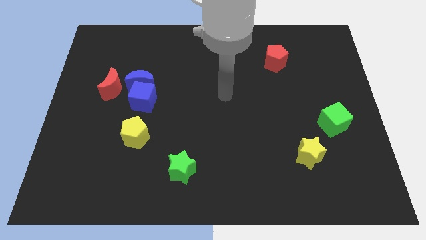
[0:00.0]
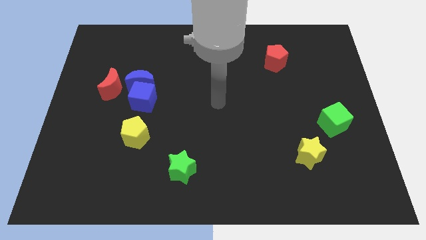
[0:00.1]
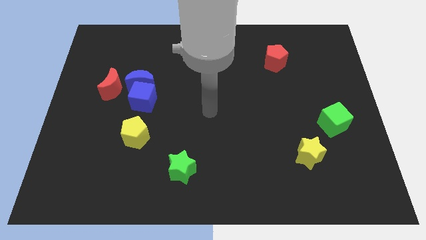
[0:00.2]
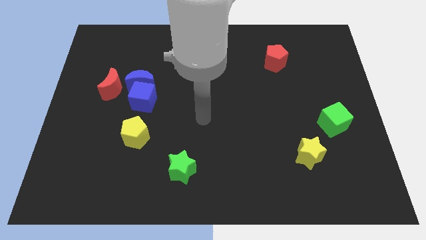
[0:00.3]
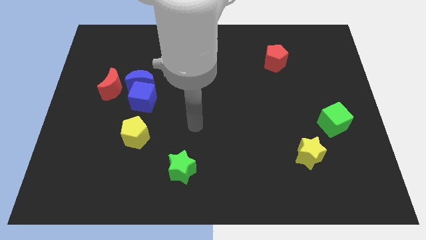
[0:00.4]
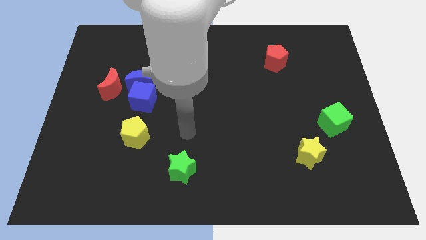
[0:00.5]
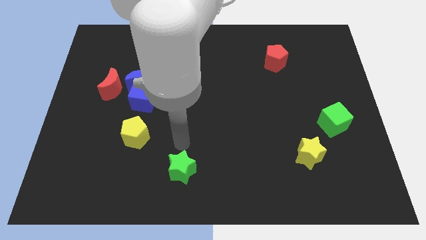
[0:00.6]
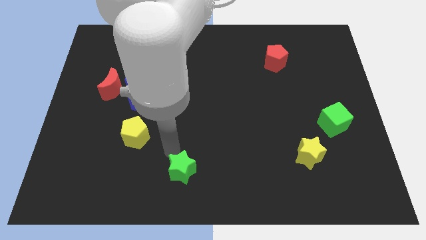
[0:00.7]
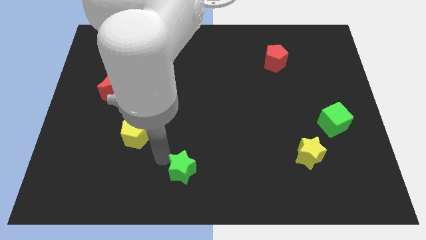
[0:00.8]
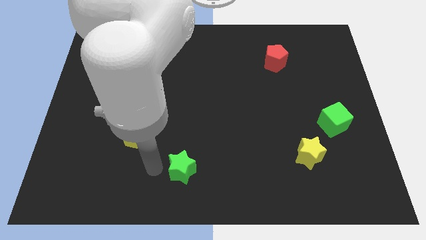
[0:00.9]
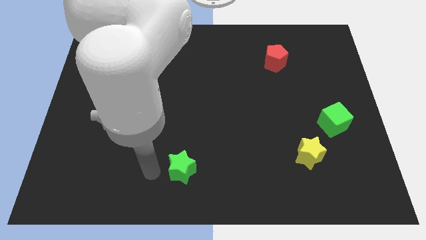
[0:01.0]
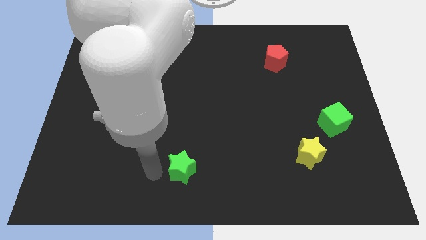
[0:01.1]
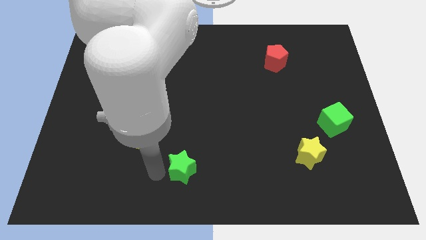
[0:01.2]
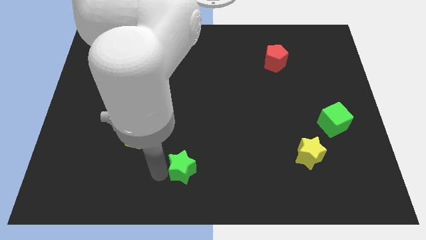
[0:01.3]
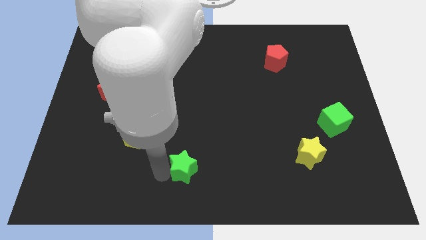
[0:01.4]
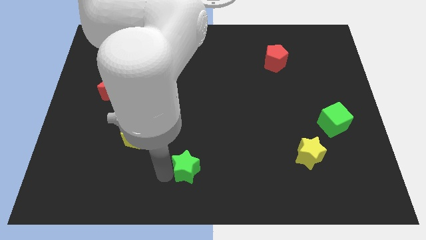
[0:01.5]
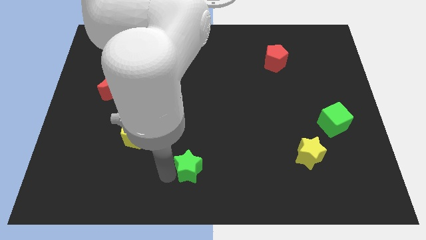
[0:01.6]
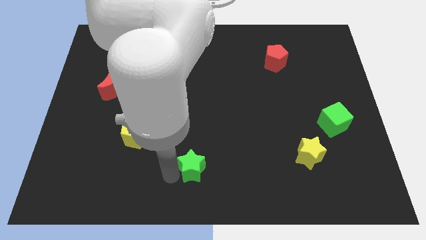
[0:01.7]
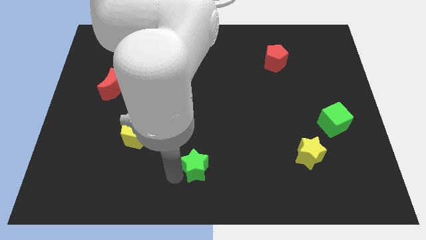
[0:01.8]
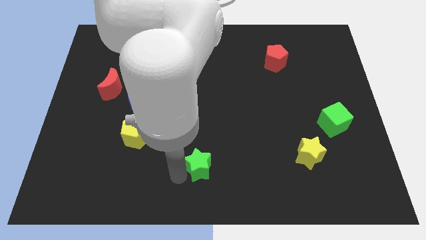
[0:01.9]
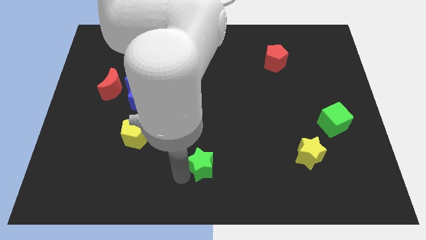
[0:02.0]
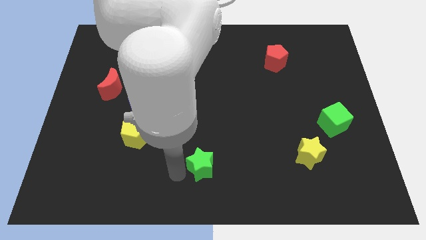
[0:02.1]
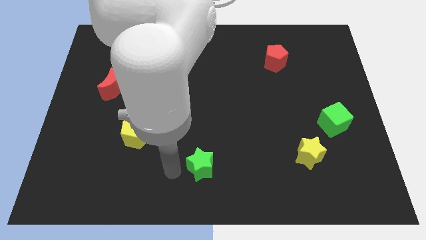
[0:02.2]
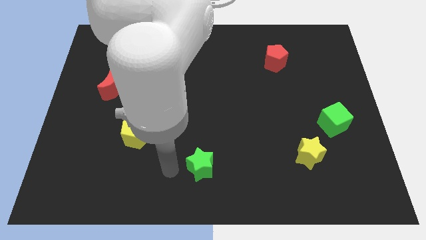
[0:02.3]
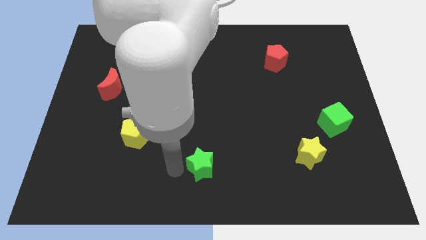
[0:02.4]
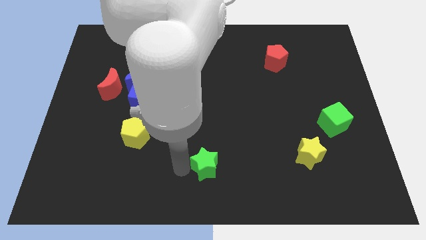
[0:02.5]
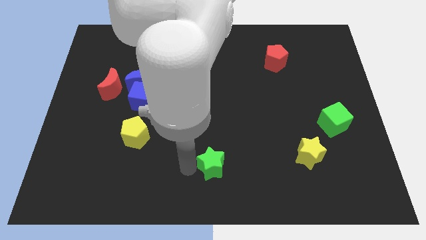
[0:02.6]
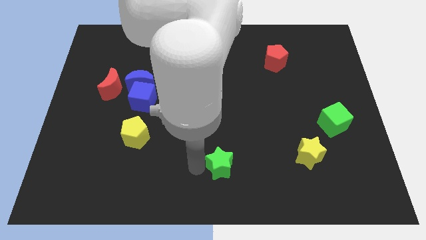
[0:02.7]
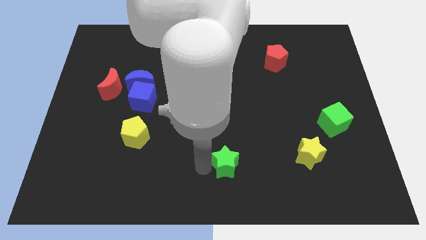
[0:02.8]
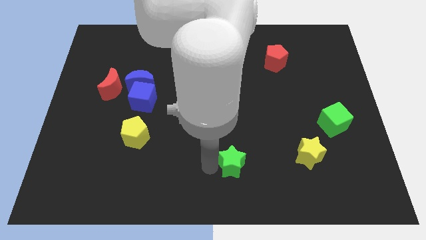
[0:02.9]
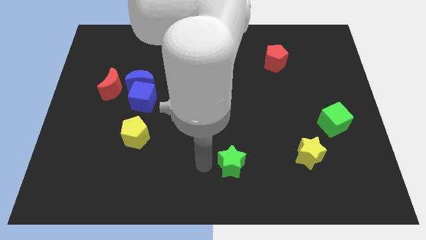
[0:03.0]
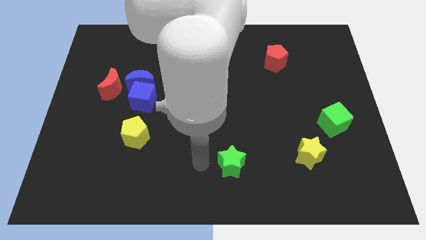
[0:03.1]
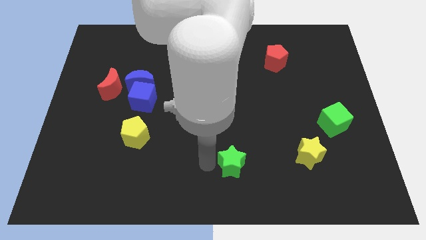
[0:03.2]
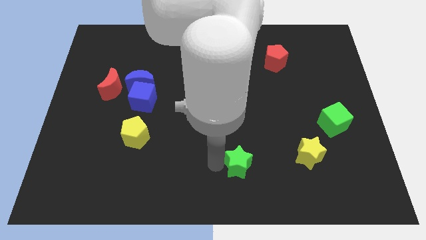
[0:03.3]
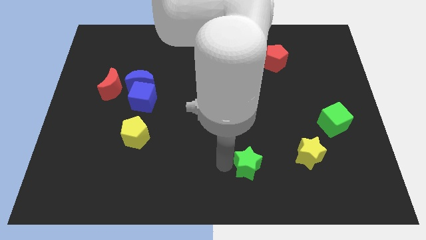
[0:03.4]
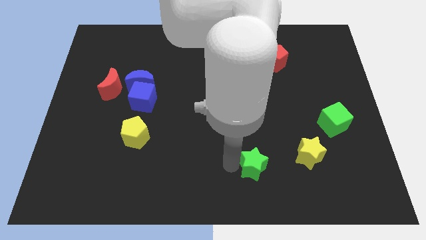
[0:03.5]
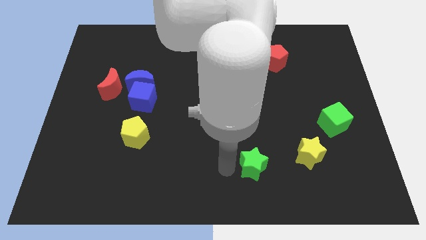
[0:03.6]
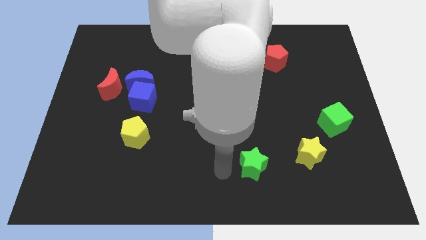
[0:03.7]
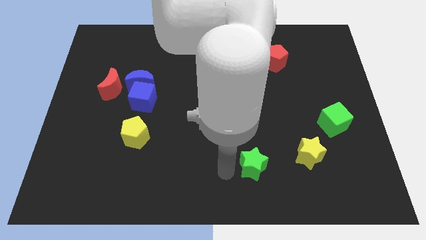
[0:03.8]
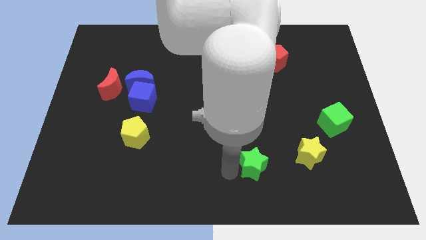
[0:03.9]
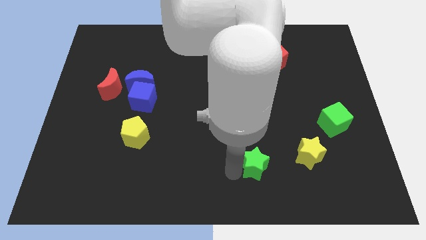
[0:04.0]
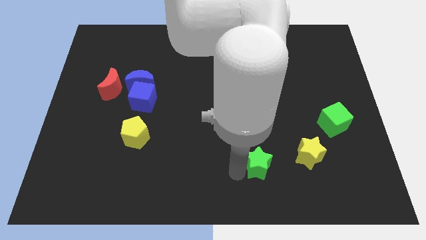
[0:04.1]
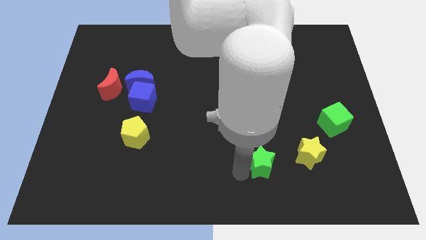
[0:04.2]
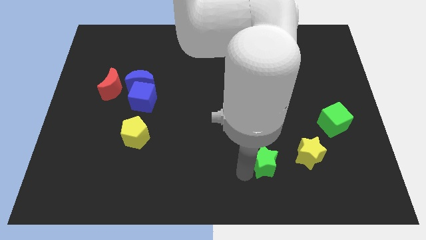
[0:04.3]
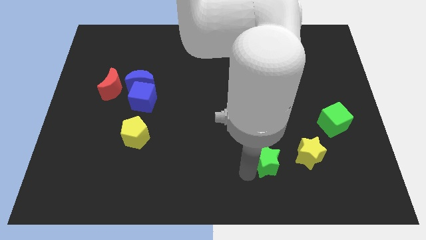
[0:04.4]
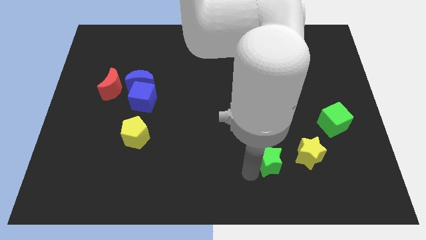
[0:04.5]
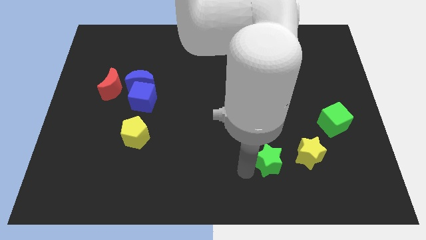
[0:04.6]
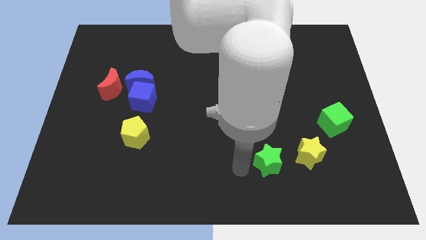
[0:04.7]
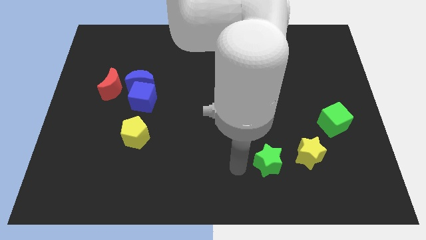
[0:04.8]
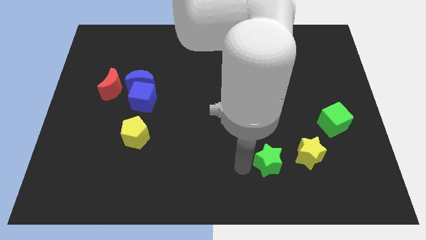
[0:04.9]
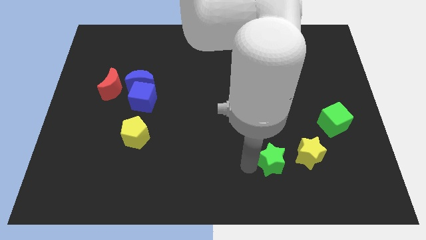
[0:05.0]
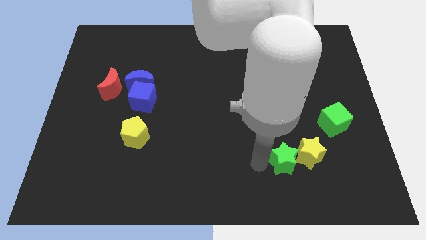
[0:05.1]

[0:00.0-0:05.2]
put the green star next to the yellow star

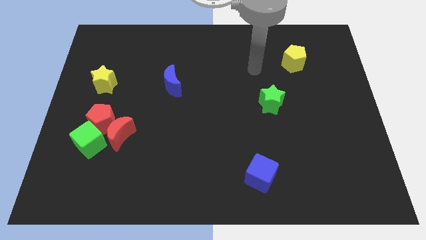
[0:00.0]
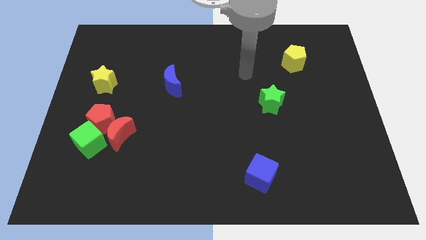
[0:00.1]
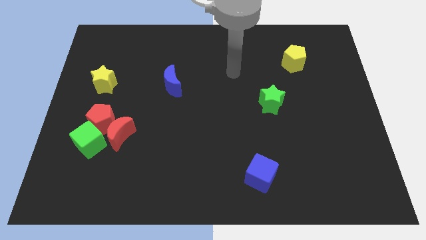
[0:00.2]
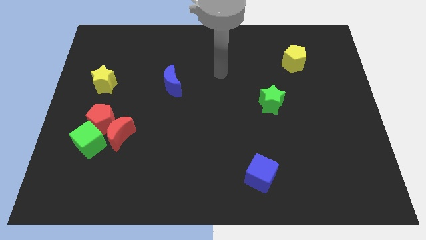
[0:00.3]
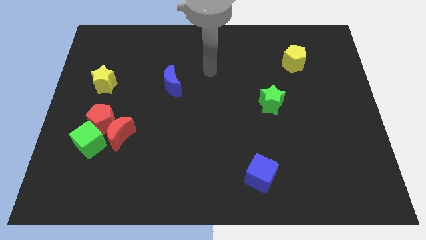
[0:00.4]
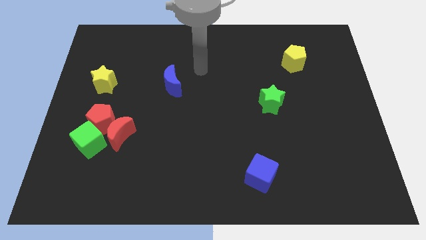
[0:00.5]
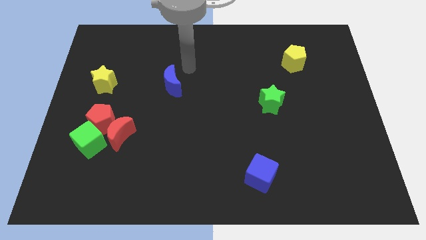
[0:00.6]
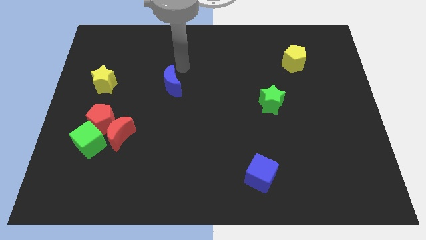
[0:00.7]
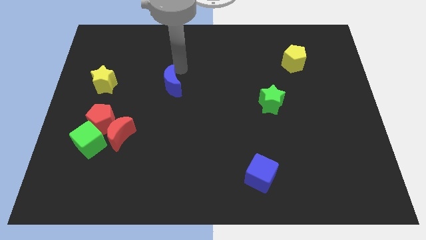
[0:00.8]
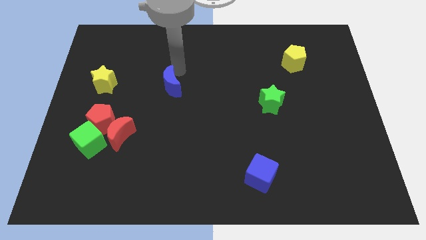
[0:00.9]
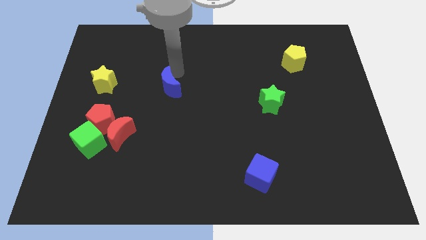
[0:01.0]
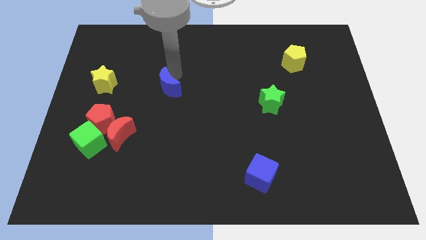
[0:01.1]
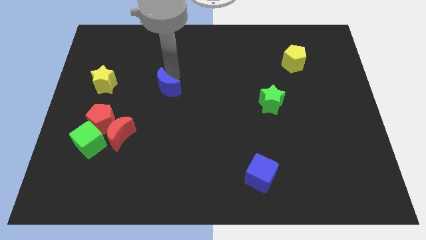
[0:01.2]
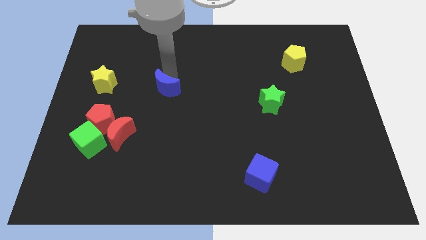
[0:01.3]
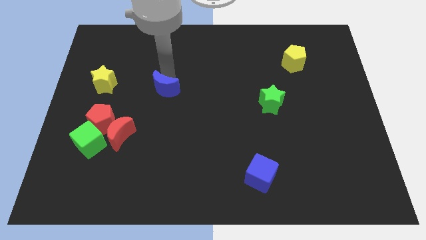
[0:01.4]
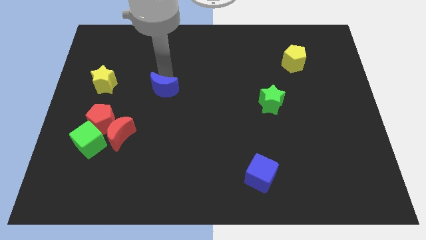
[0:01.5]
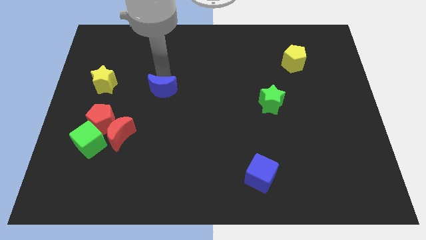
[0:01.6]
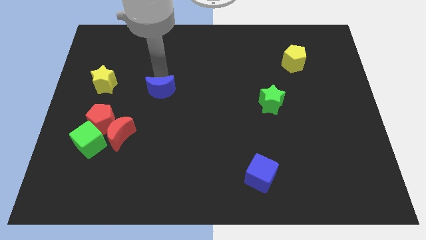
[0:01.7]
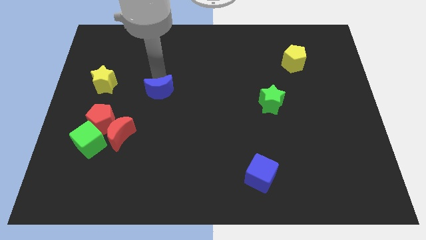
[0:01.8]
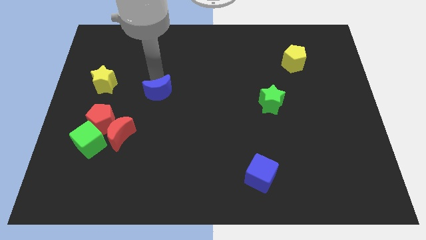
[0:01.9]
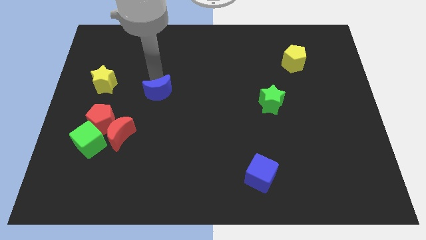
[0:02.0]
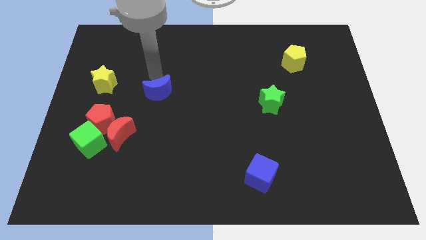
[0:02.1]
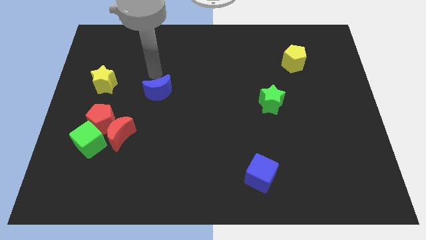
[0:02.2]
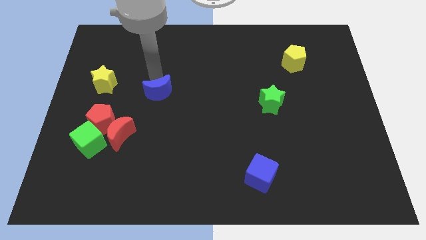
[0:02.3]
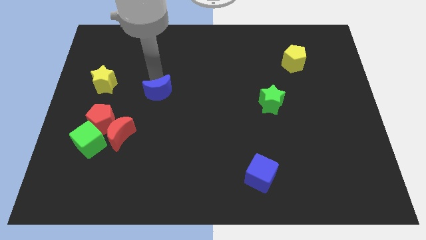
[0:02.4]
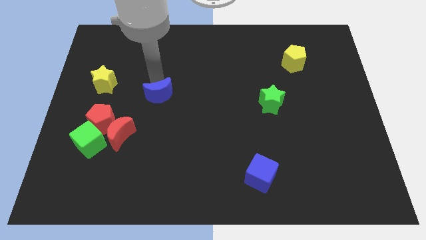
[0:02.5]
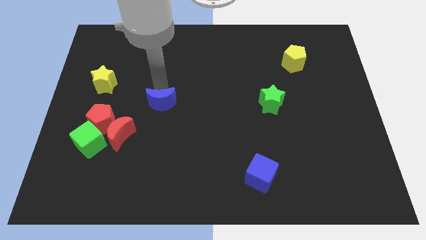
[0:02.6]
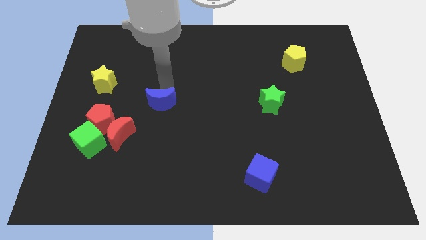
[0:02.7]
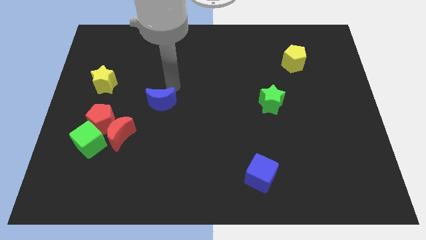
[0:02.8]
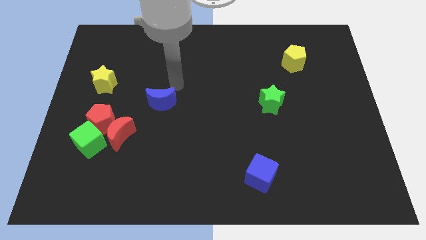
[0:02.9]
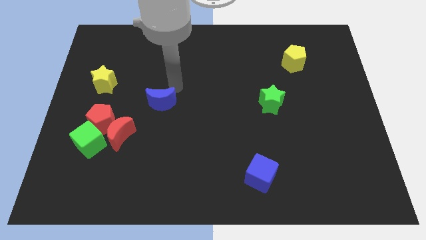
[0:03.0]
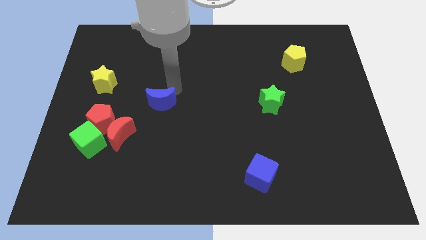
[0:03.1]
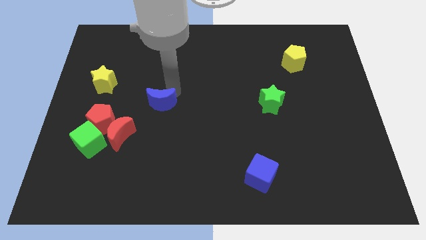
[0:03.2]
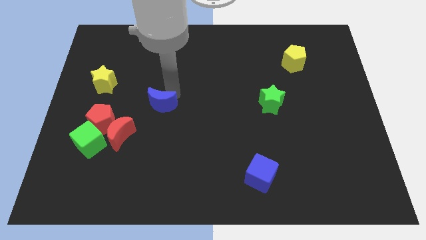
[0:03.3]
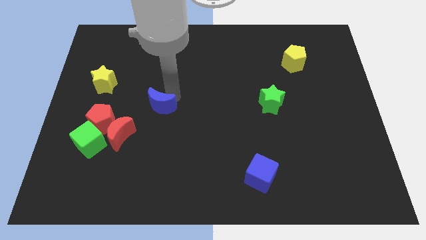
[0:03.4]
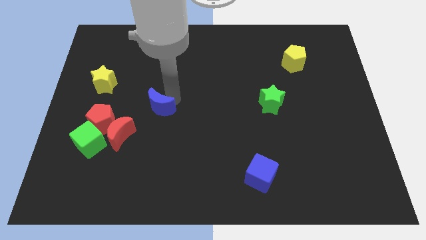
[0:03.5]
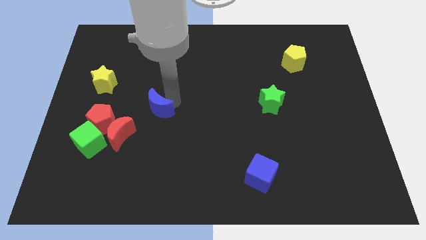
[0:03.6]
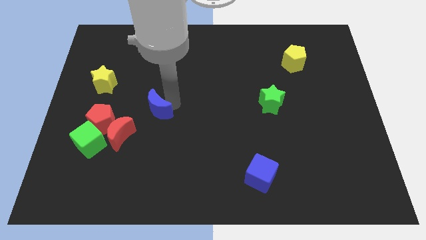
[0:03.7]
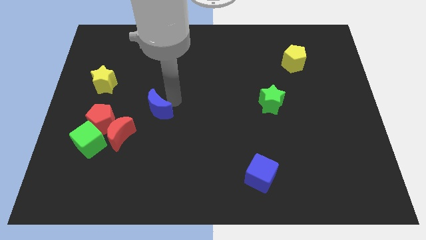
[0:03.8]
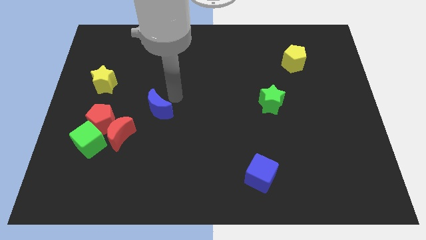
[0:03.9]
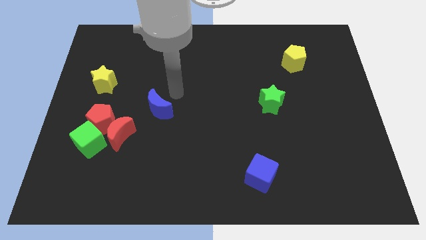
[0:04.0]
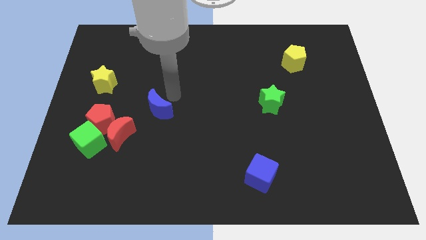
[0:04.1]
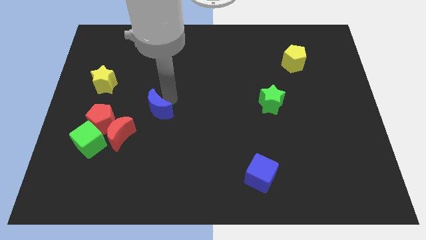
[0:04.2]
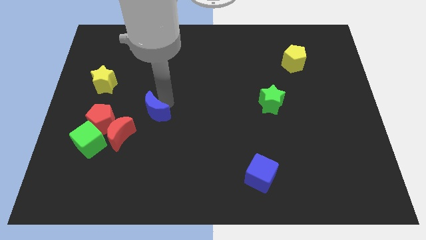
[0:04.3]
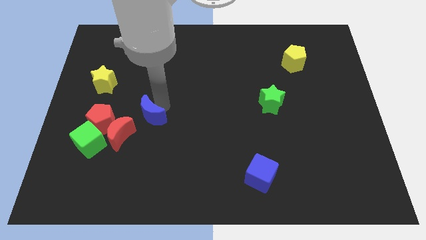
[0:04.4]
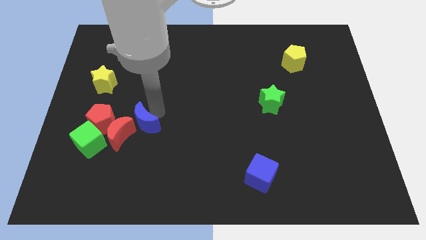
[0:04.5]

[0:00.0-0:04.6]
put the blue moon towards the red moon
